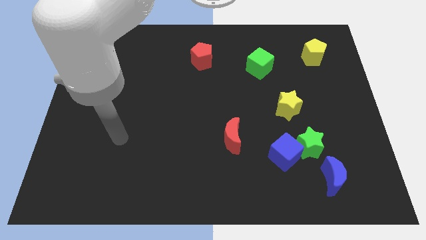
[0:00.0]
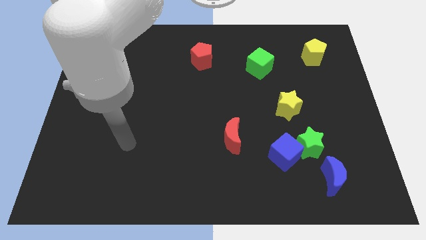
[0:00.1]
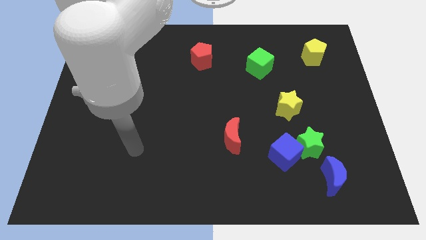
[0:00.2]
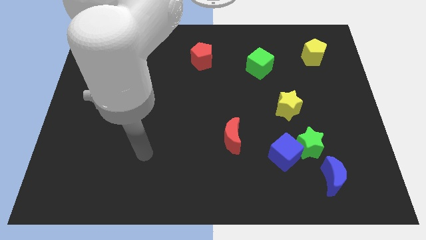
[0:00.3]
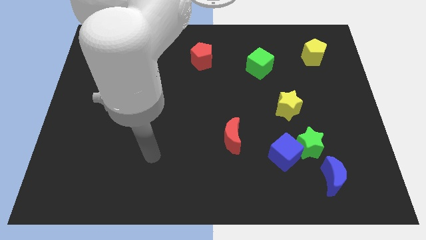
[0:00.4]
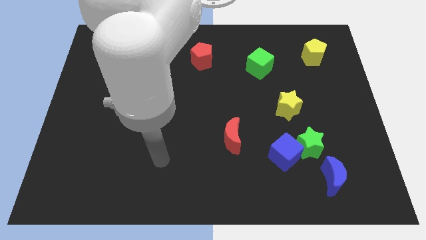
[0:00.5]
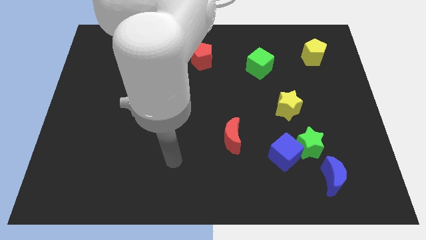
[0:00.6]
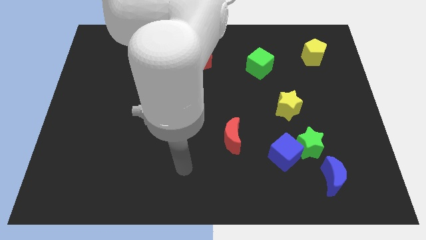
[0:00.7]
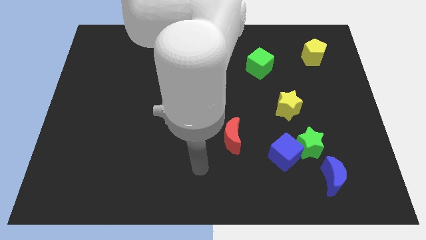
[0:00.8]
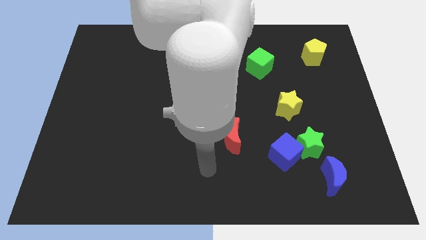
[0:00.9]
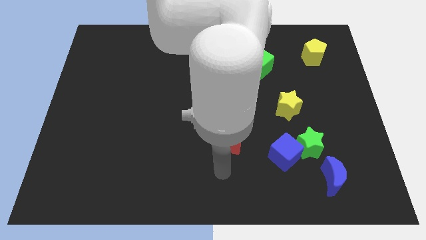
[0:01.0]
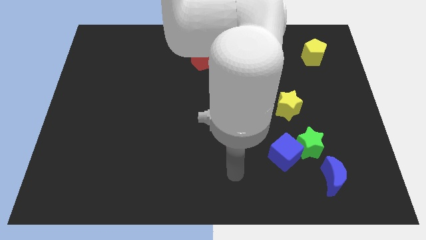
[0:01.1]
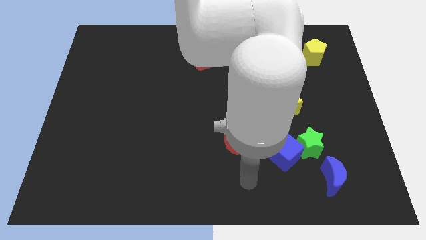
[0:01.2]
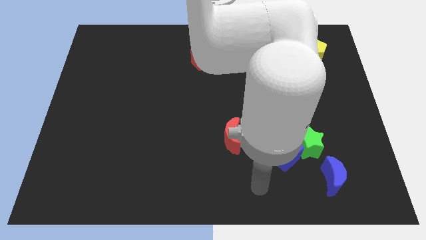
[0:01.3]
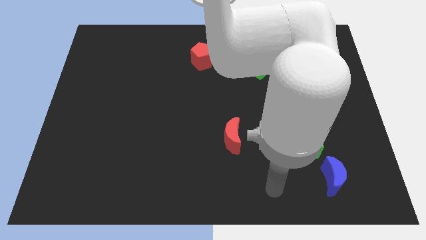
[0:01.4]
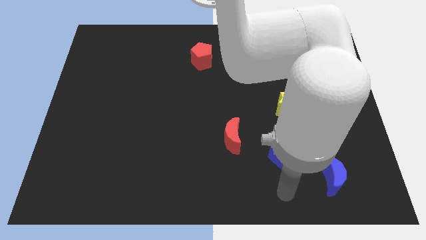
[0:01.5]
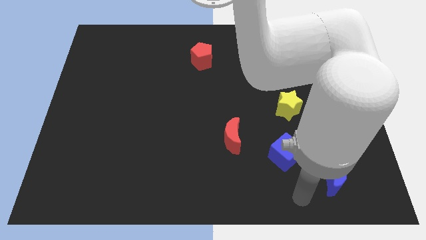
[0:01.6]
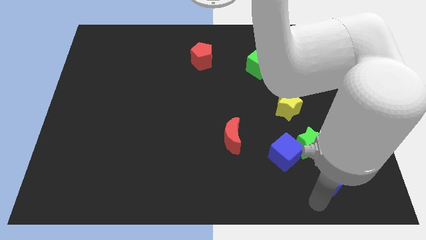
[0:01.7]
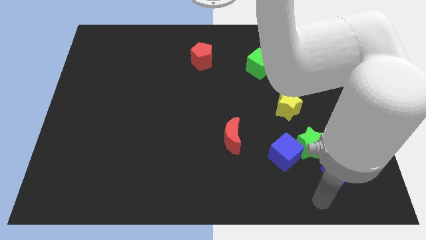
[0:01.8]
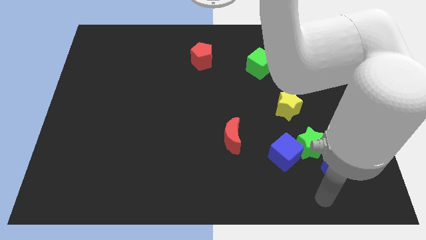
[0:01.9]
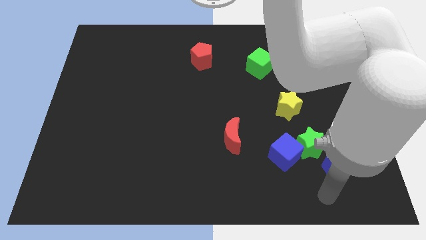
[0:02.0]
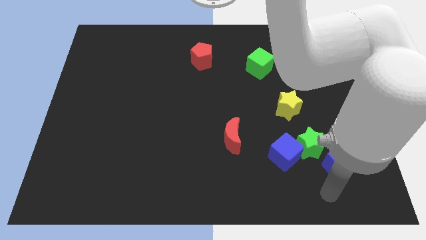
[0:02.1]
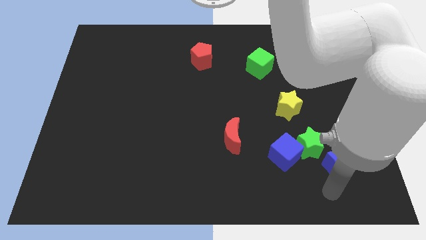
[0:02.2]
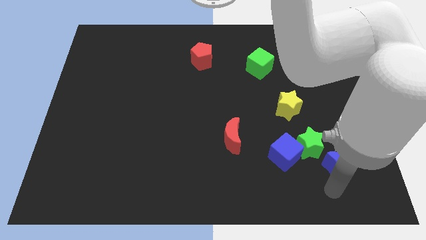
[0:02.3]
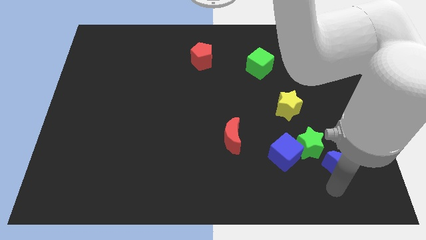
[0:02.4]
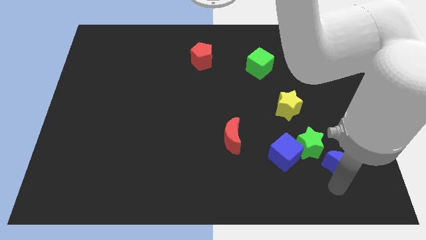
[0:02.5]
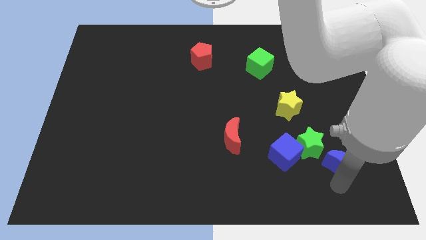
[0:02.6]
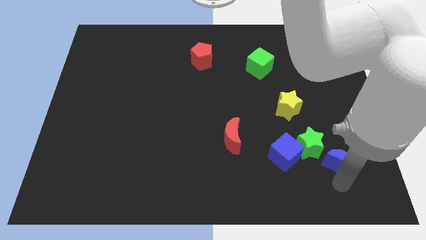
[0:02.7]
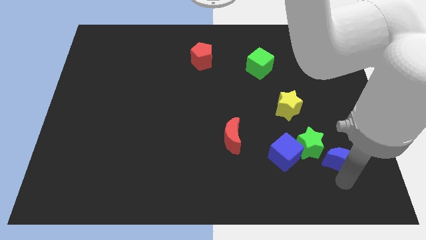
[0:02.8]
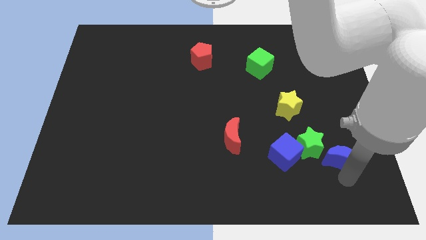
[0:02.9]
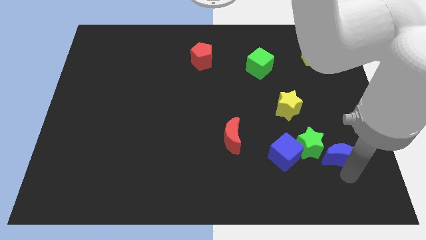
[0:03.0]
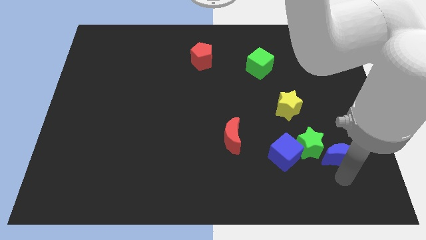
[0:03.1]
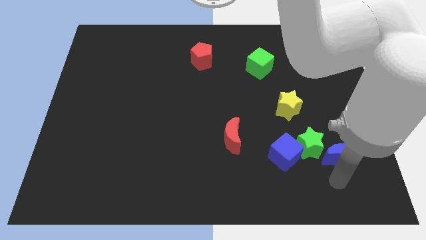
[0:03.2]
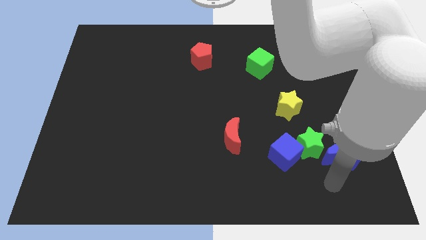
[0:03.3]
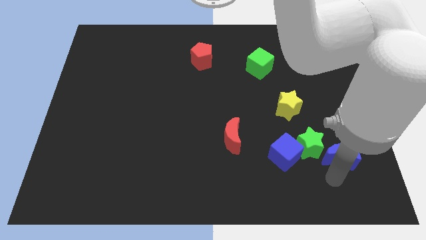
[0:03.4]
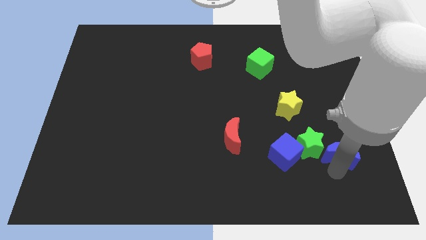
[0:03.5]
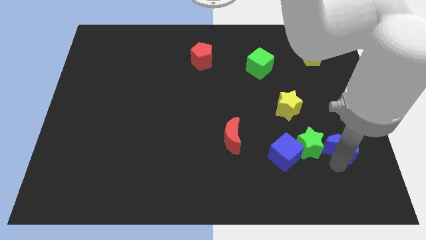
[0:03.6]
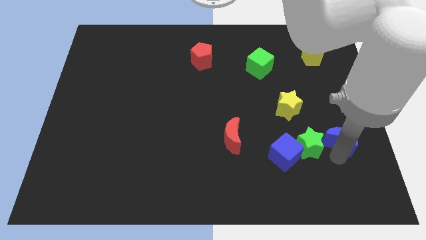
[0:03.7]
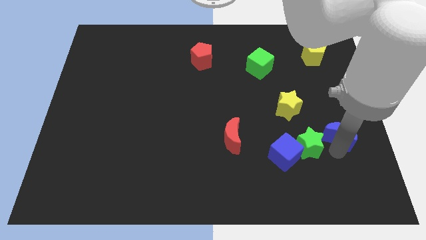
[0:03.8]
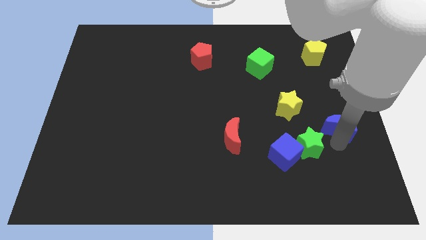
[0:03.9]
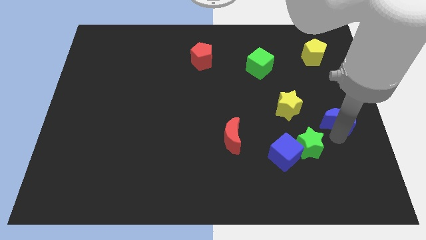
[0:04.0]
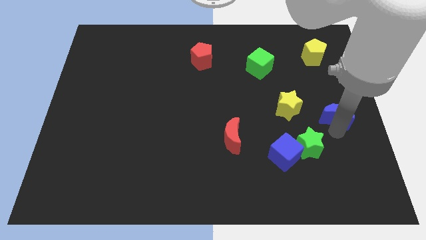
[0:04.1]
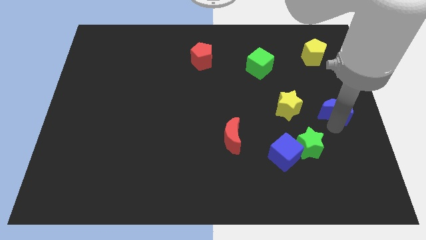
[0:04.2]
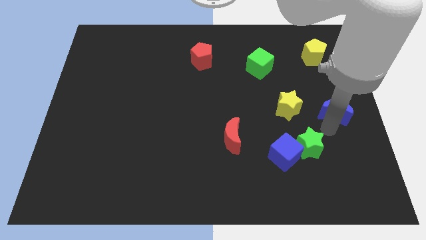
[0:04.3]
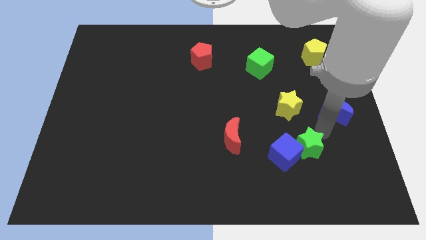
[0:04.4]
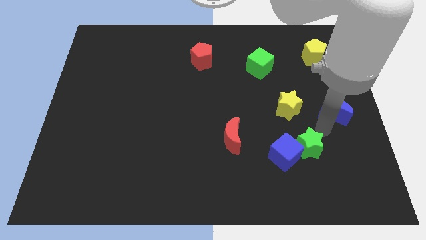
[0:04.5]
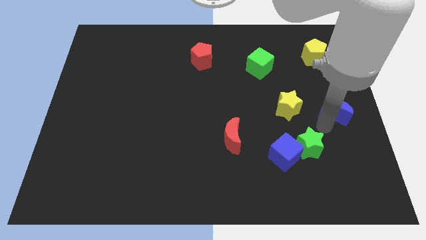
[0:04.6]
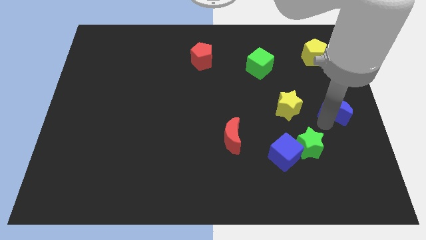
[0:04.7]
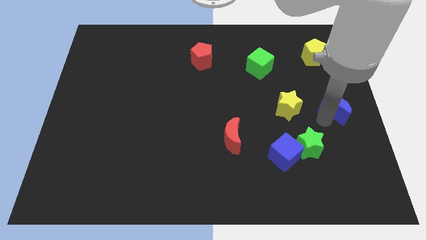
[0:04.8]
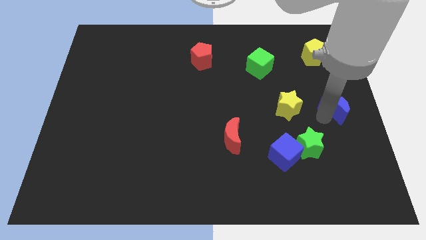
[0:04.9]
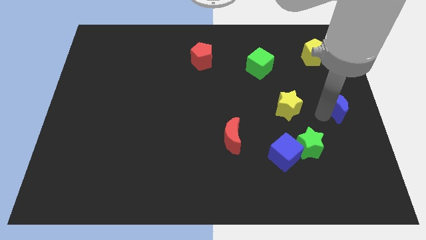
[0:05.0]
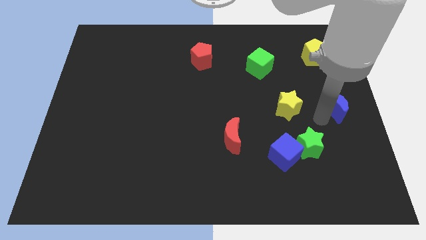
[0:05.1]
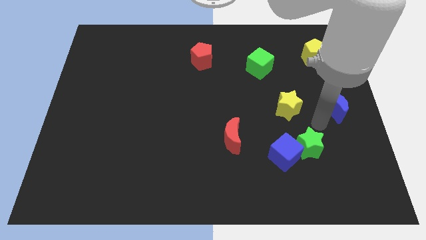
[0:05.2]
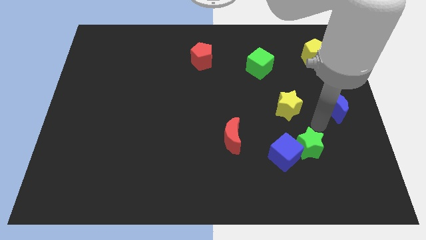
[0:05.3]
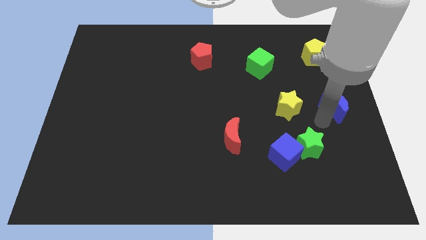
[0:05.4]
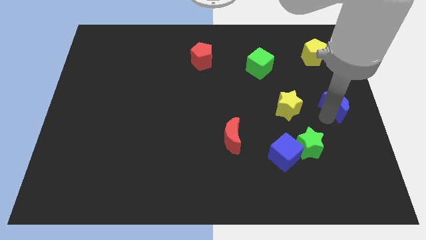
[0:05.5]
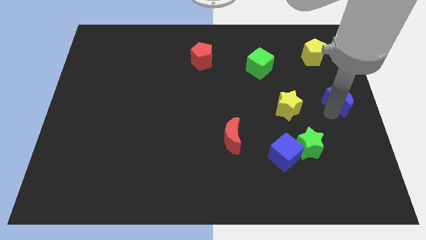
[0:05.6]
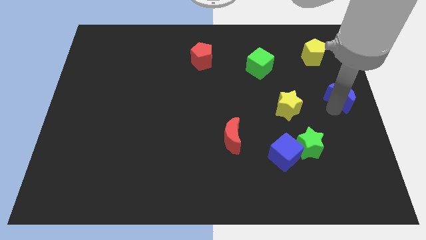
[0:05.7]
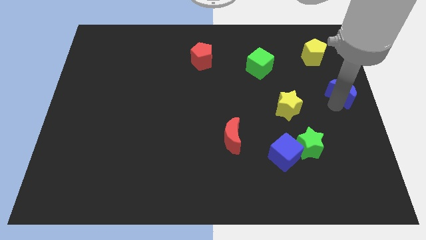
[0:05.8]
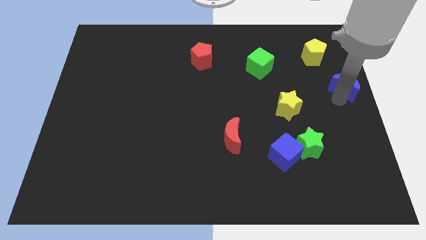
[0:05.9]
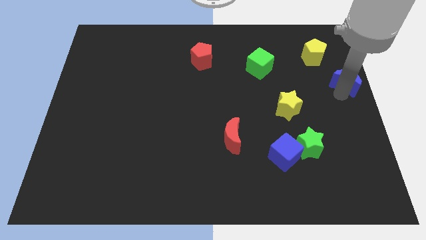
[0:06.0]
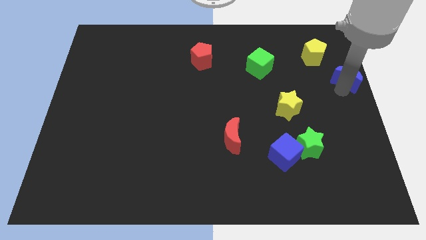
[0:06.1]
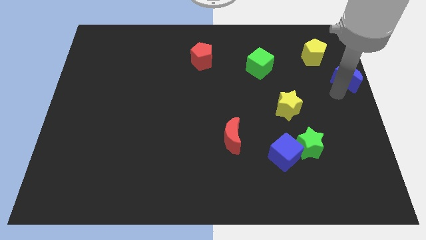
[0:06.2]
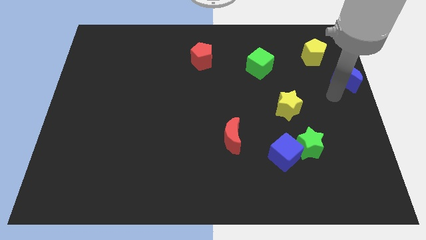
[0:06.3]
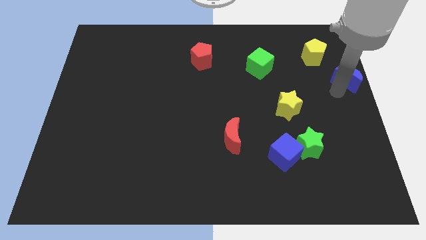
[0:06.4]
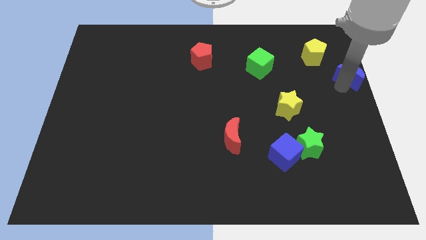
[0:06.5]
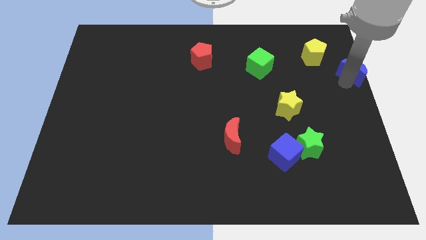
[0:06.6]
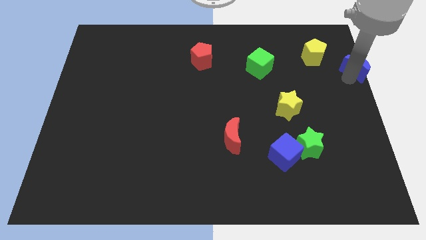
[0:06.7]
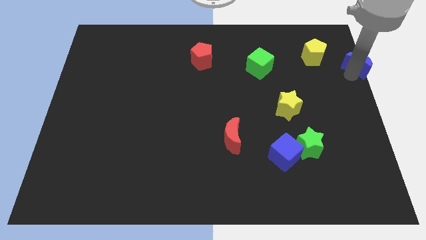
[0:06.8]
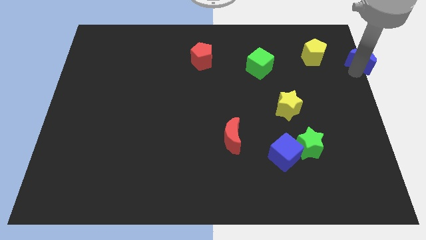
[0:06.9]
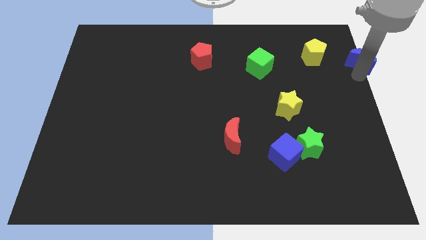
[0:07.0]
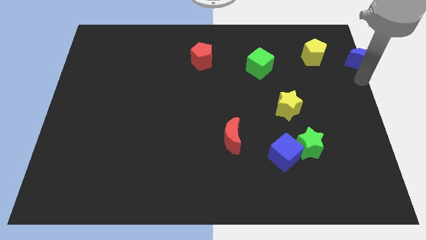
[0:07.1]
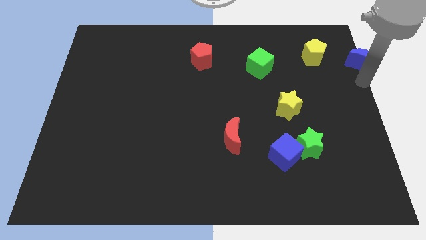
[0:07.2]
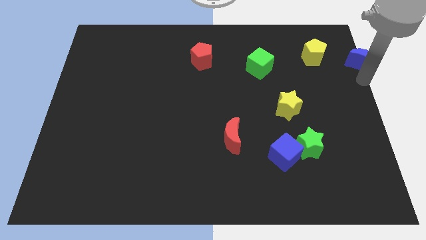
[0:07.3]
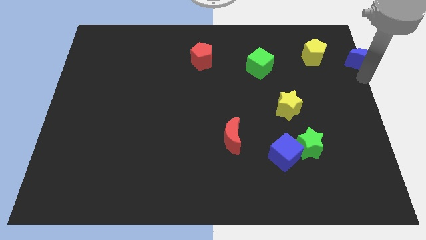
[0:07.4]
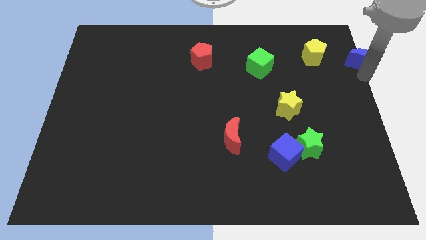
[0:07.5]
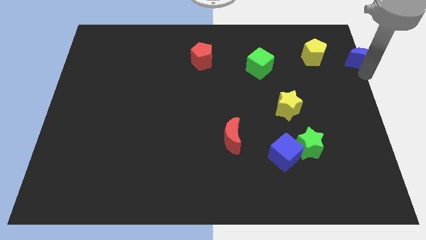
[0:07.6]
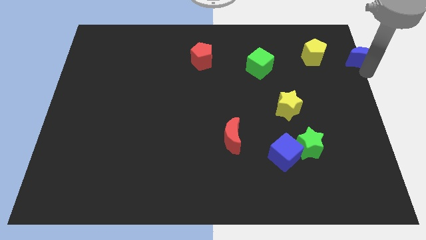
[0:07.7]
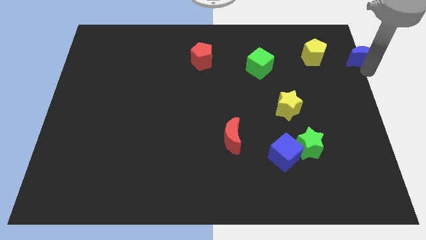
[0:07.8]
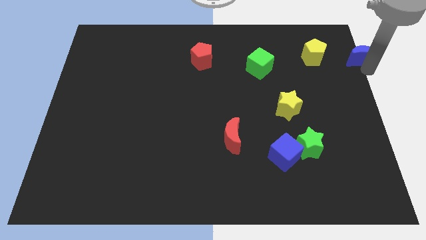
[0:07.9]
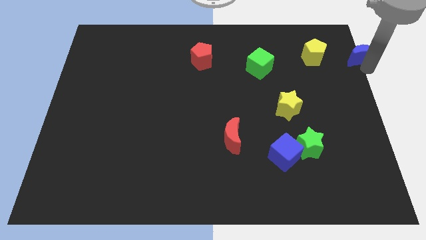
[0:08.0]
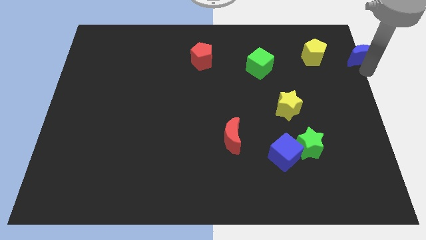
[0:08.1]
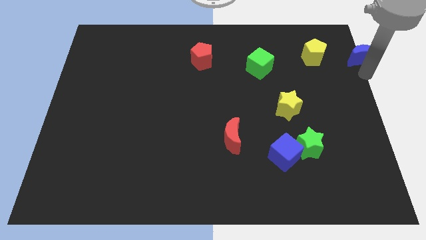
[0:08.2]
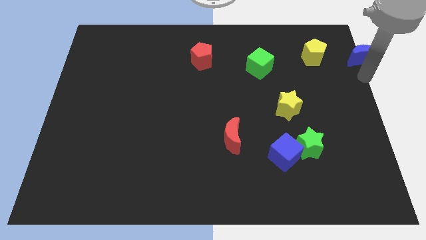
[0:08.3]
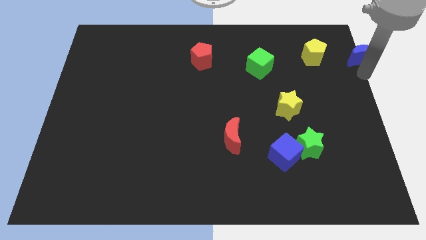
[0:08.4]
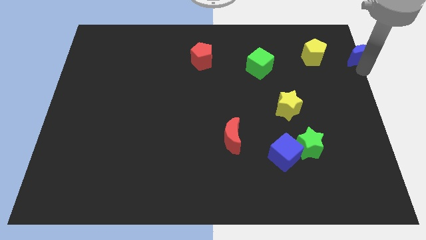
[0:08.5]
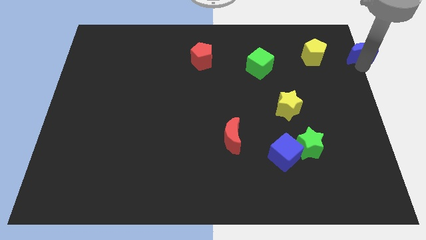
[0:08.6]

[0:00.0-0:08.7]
put the blue moon to the upper right corner
